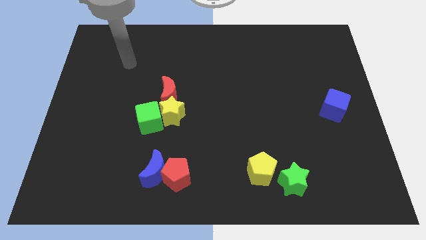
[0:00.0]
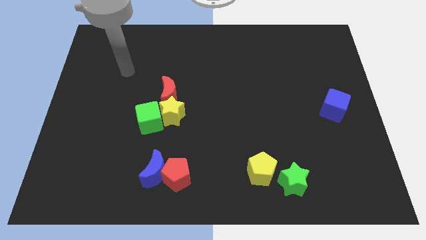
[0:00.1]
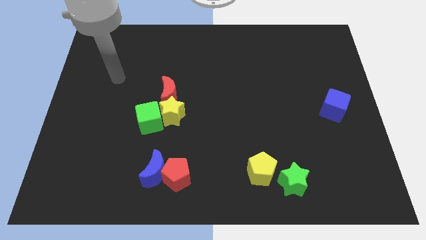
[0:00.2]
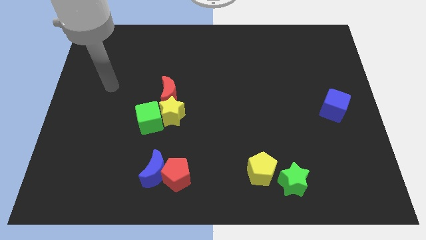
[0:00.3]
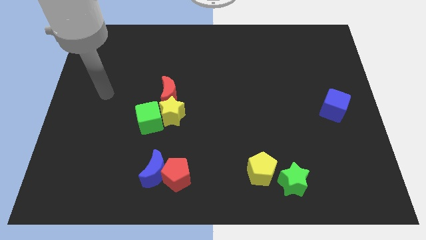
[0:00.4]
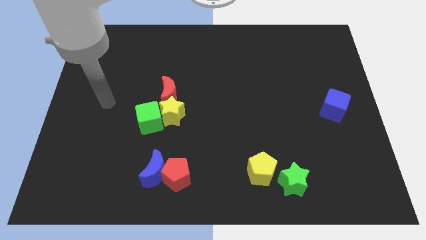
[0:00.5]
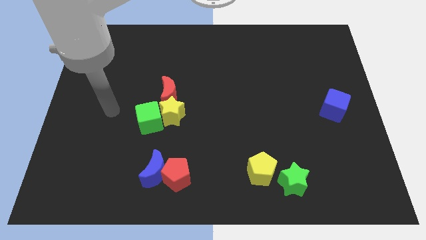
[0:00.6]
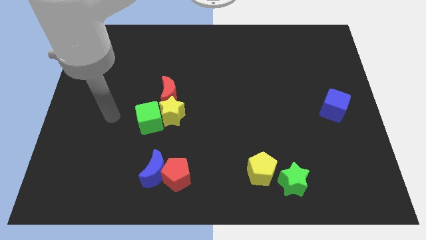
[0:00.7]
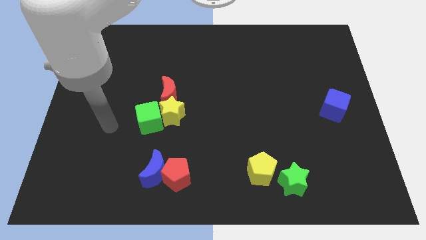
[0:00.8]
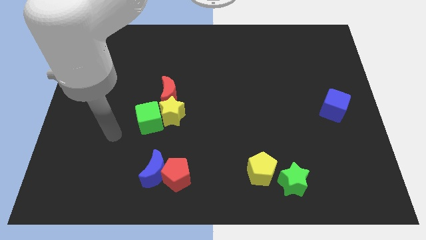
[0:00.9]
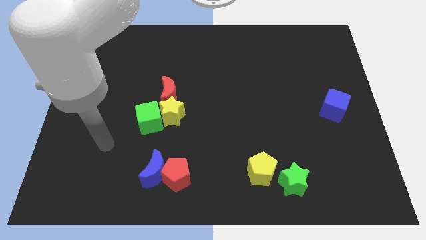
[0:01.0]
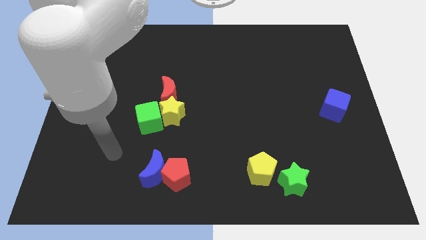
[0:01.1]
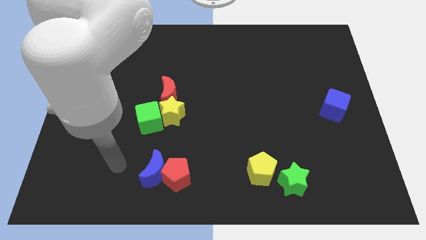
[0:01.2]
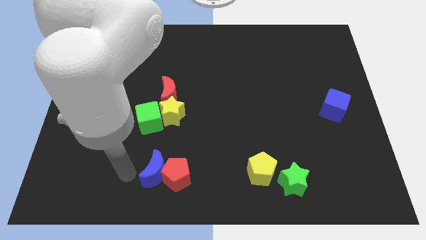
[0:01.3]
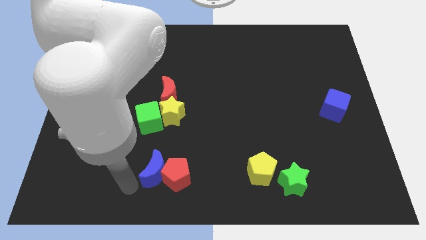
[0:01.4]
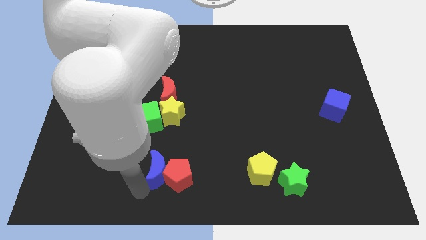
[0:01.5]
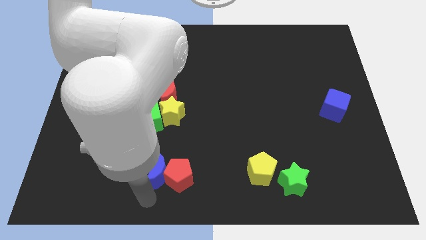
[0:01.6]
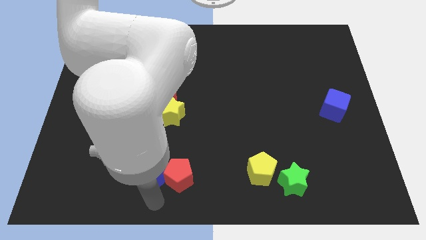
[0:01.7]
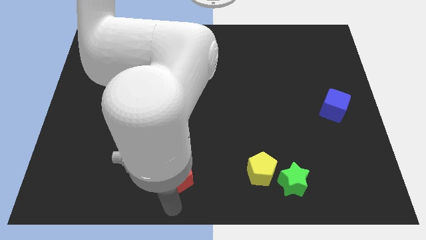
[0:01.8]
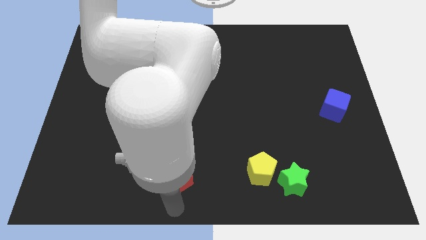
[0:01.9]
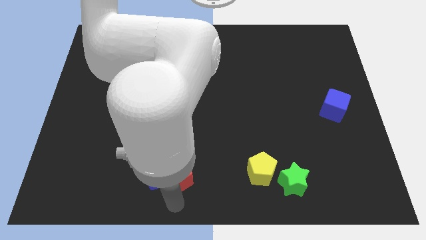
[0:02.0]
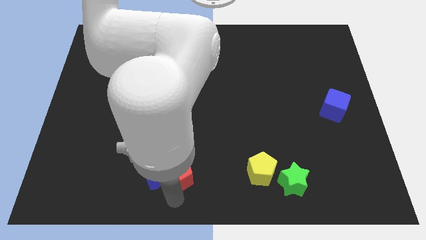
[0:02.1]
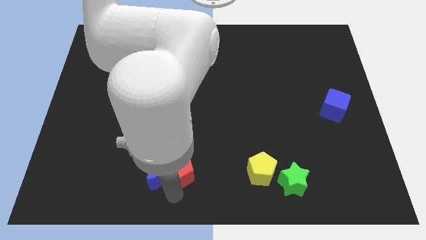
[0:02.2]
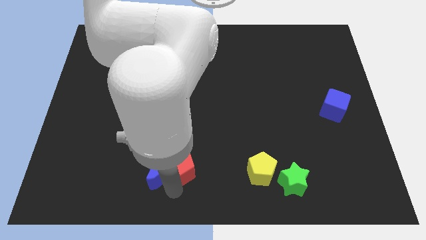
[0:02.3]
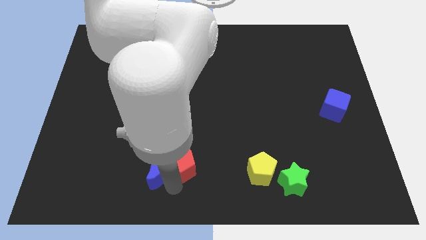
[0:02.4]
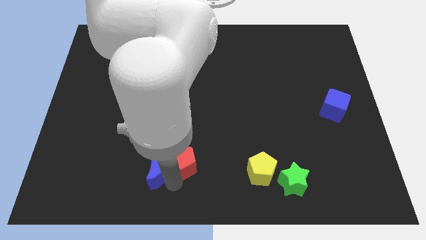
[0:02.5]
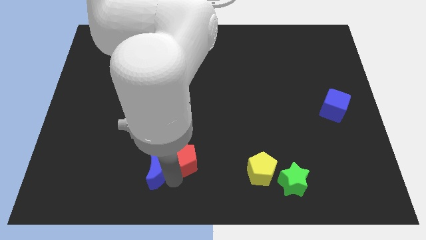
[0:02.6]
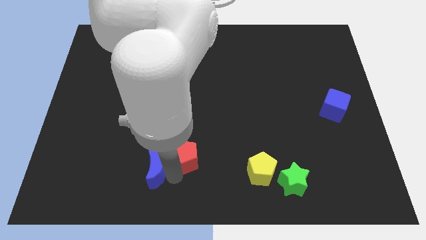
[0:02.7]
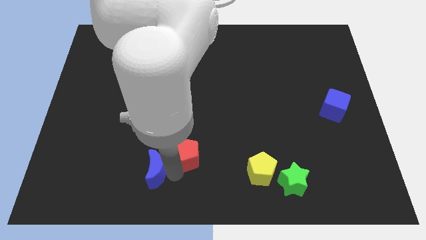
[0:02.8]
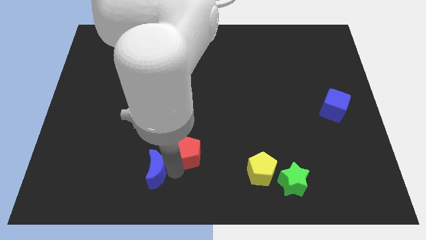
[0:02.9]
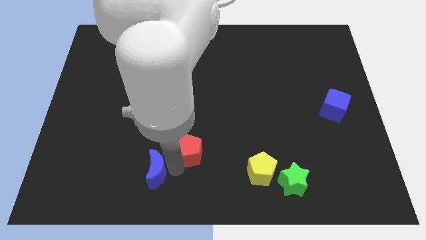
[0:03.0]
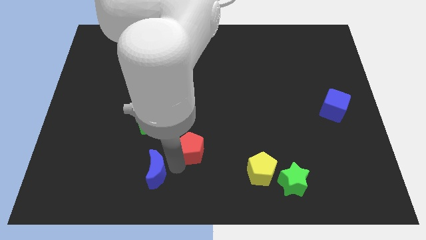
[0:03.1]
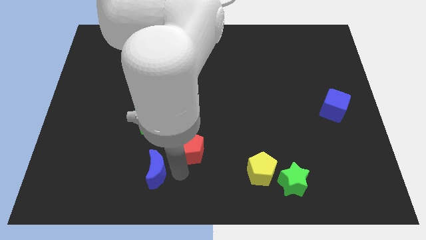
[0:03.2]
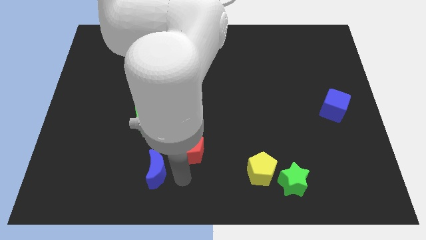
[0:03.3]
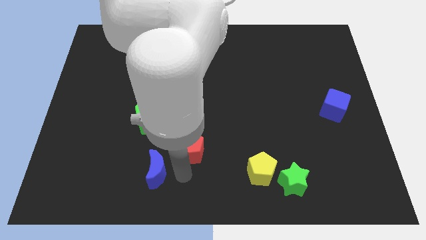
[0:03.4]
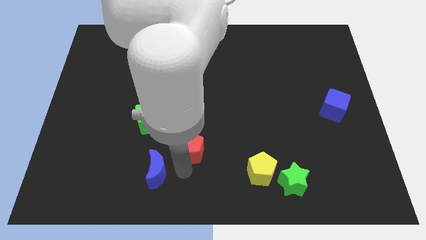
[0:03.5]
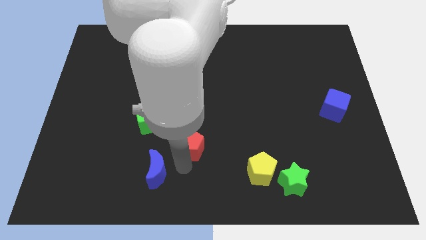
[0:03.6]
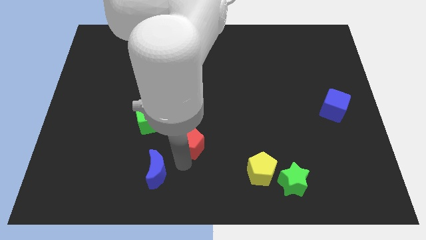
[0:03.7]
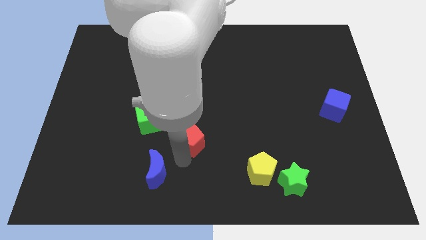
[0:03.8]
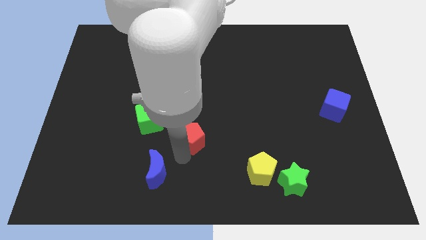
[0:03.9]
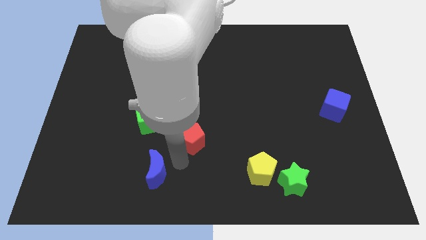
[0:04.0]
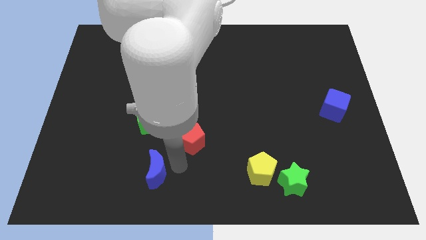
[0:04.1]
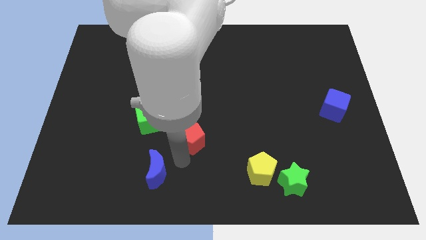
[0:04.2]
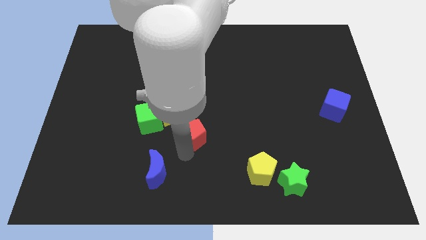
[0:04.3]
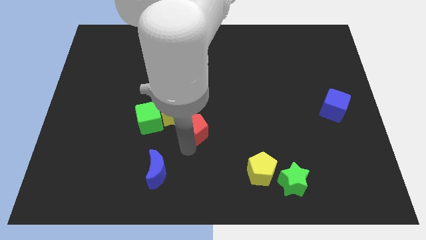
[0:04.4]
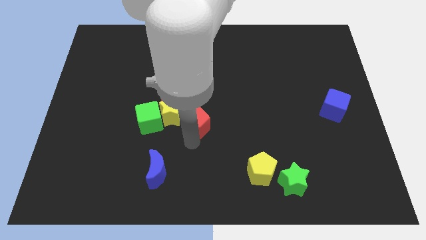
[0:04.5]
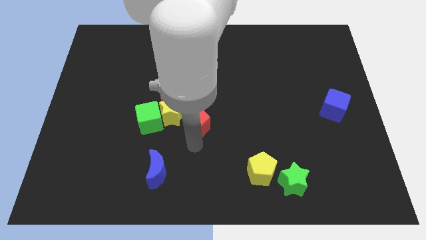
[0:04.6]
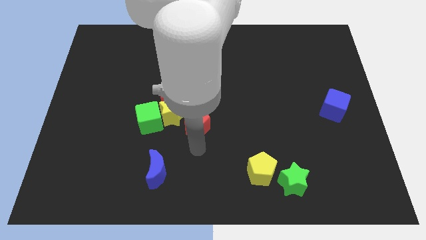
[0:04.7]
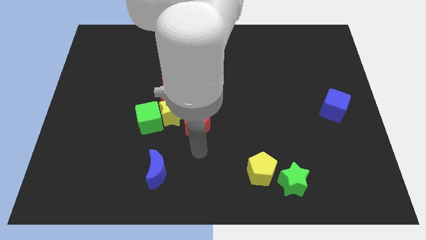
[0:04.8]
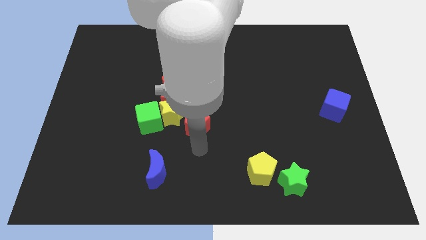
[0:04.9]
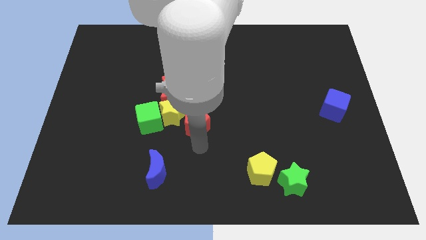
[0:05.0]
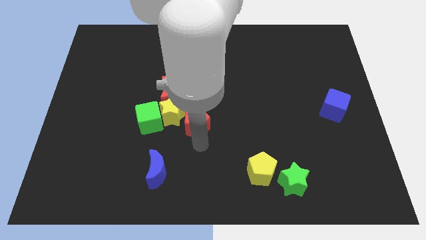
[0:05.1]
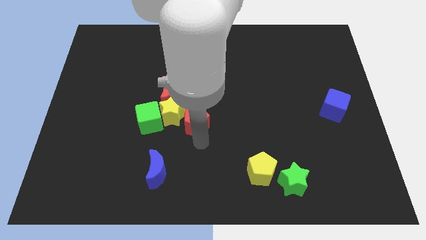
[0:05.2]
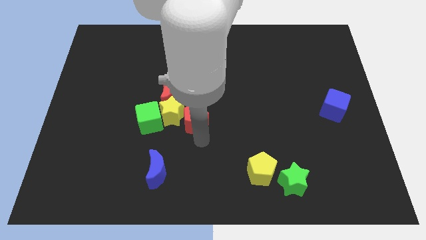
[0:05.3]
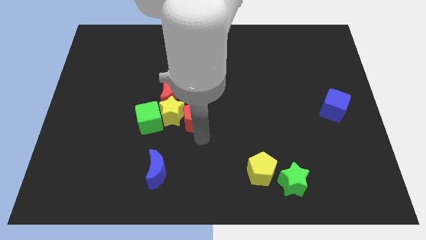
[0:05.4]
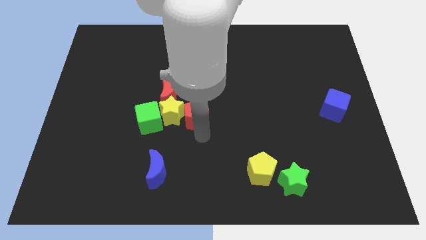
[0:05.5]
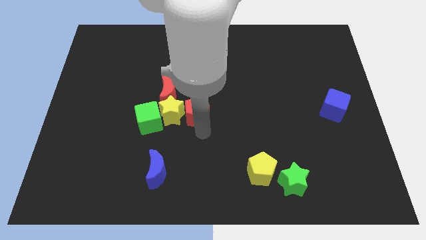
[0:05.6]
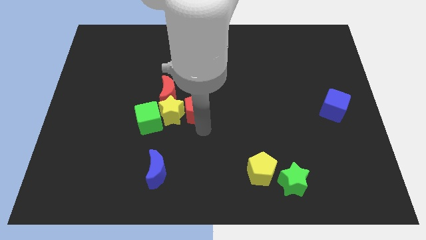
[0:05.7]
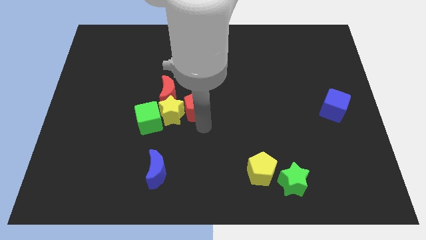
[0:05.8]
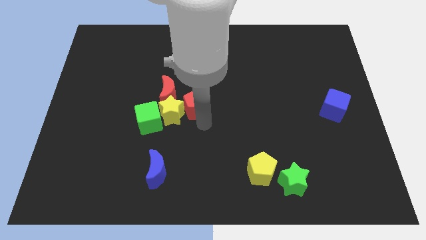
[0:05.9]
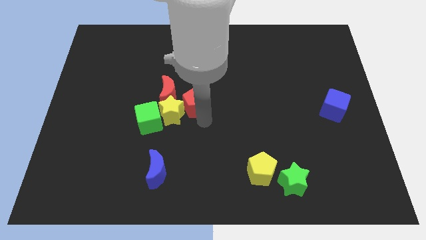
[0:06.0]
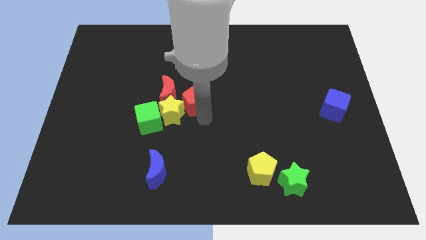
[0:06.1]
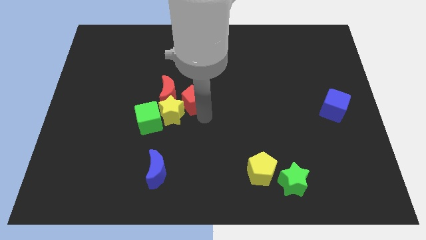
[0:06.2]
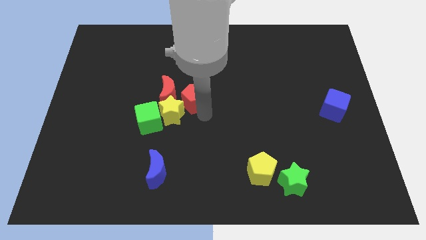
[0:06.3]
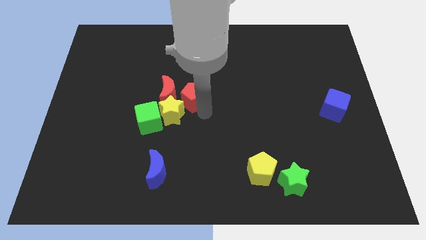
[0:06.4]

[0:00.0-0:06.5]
move the red pentagon to the top of the yellow star

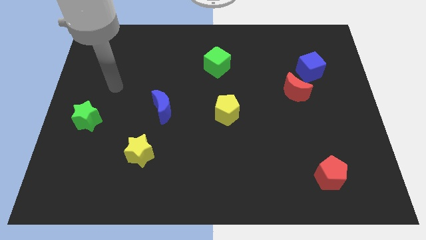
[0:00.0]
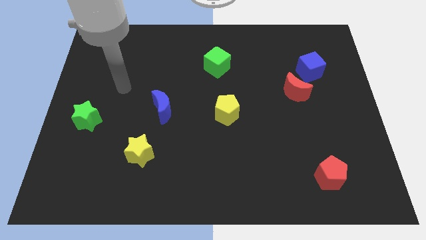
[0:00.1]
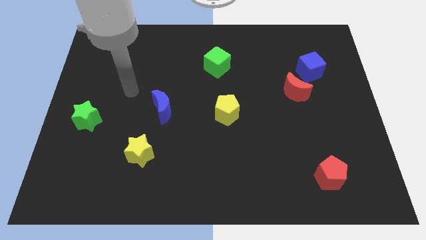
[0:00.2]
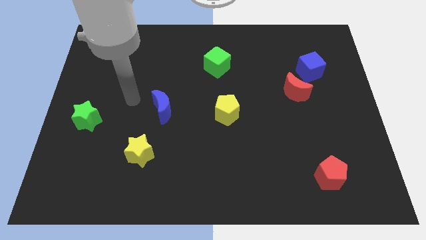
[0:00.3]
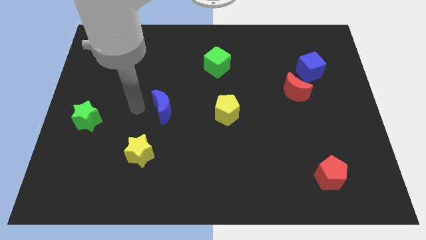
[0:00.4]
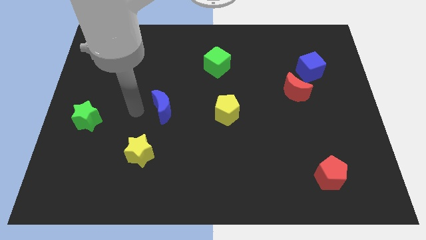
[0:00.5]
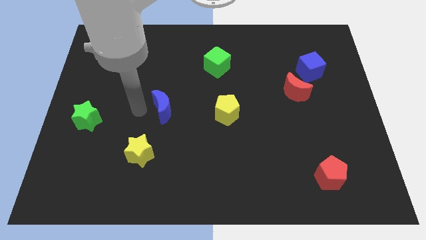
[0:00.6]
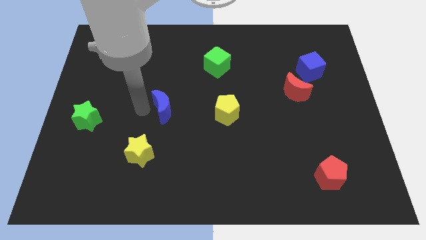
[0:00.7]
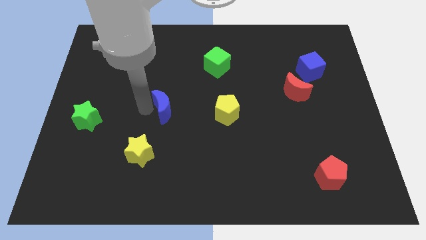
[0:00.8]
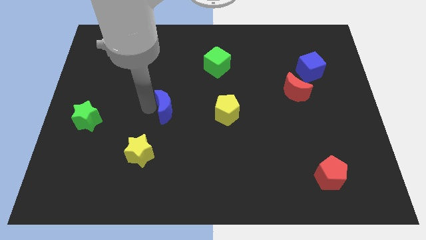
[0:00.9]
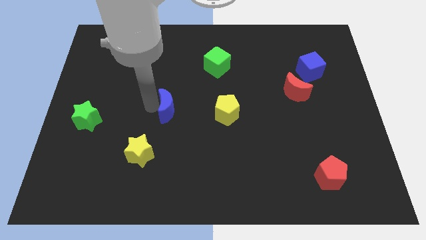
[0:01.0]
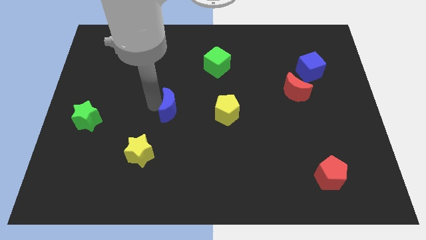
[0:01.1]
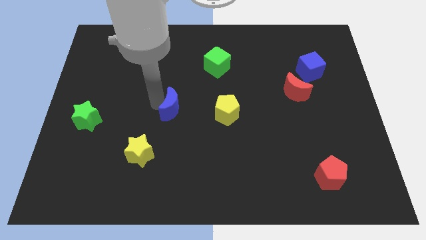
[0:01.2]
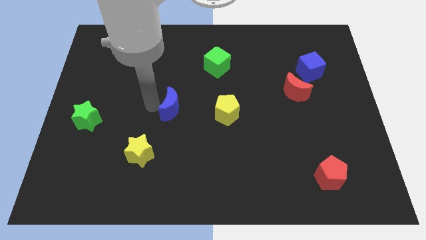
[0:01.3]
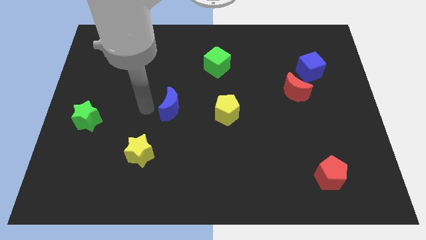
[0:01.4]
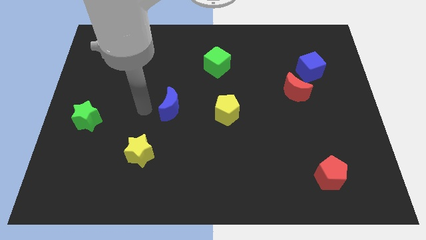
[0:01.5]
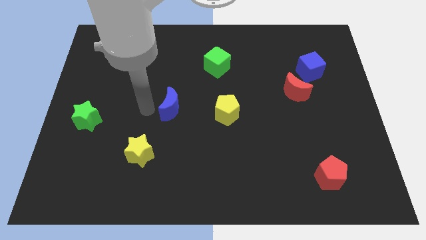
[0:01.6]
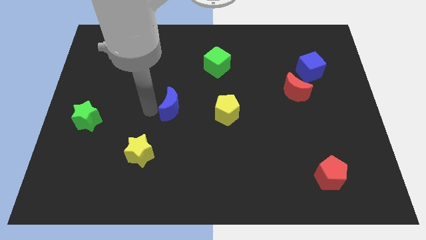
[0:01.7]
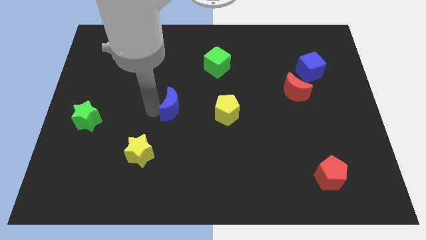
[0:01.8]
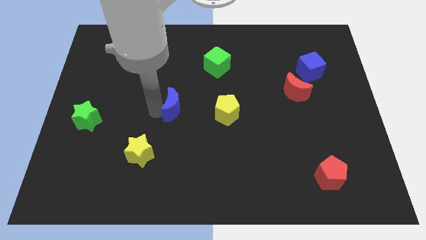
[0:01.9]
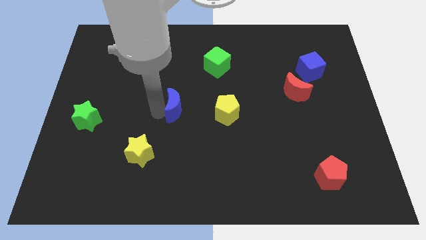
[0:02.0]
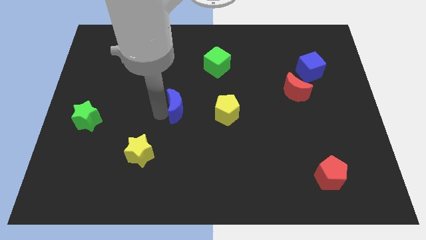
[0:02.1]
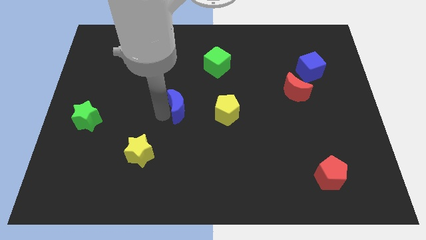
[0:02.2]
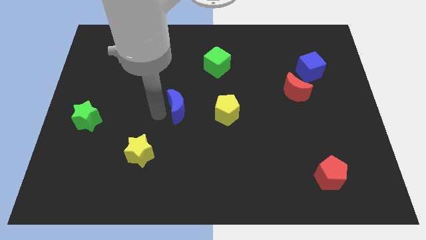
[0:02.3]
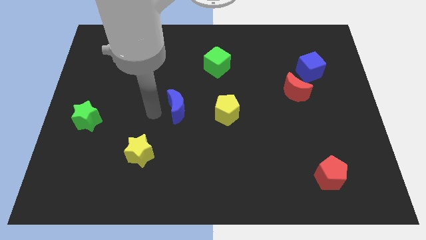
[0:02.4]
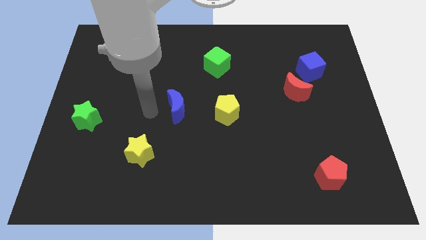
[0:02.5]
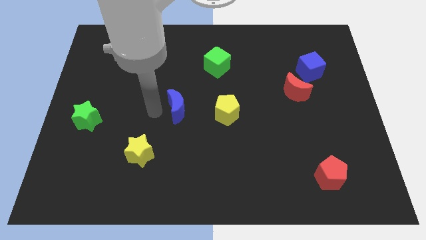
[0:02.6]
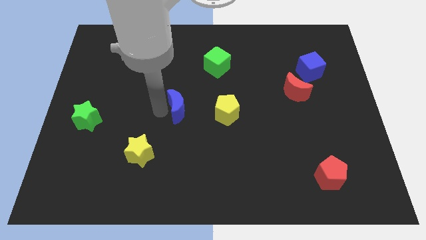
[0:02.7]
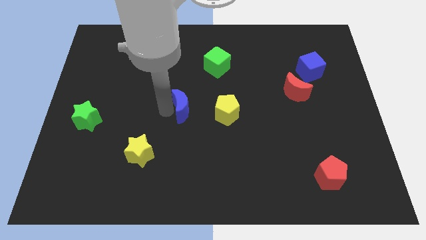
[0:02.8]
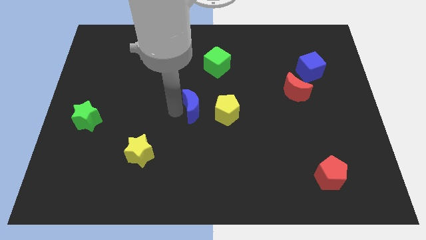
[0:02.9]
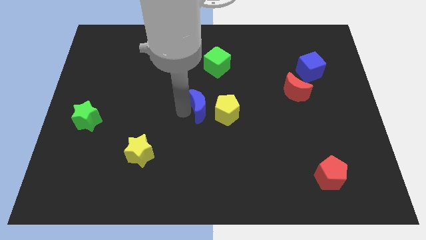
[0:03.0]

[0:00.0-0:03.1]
push the blue moon below the green cube
